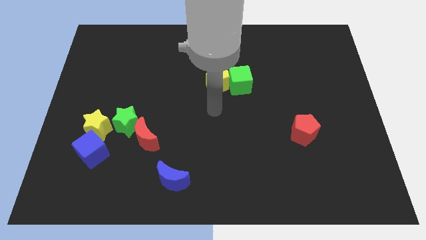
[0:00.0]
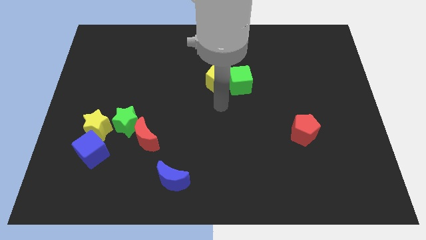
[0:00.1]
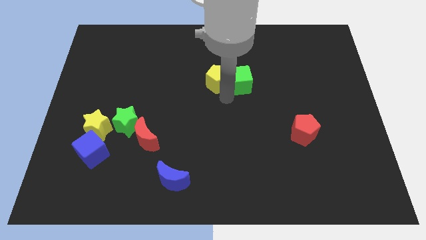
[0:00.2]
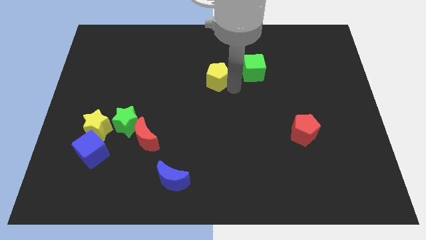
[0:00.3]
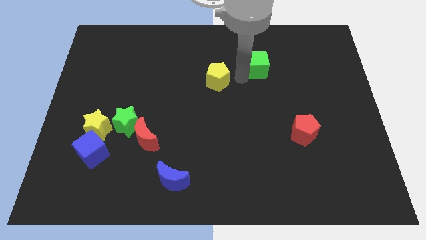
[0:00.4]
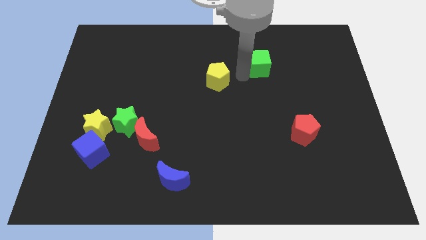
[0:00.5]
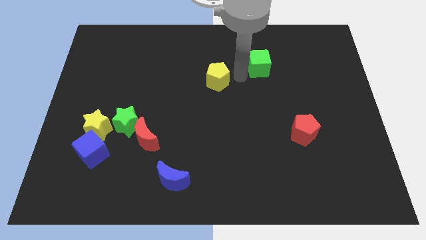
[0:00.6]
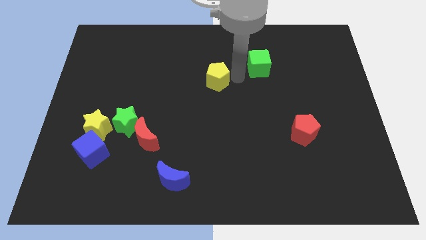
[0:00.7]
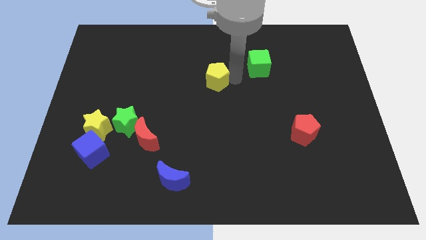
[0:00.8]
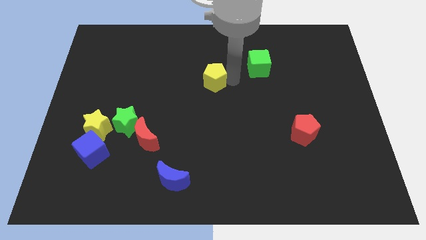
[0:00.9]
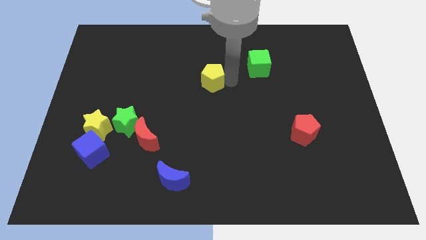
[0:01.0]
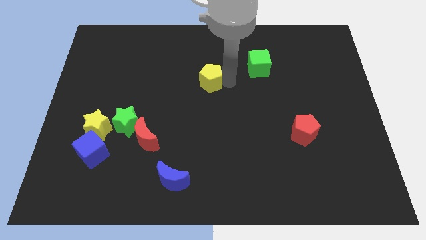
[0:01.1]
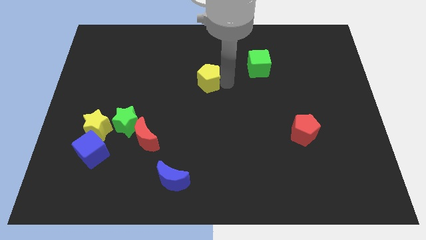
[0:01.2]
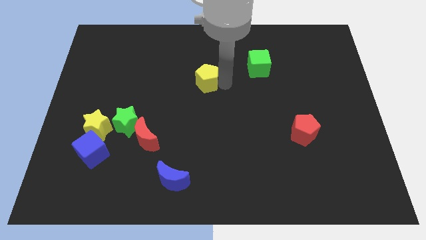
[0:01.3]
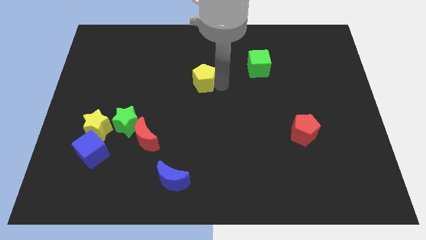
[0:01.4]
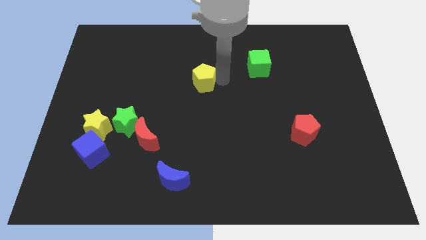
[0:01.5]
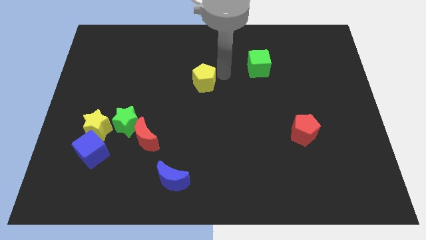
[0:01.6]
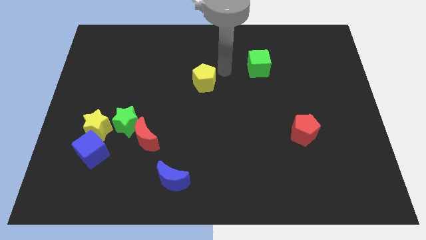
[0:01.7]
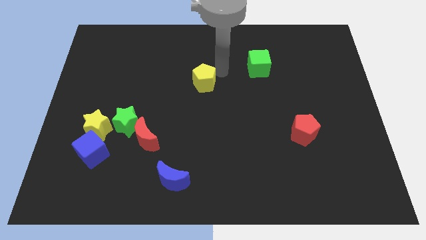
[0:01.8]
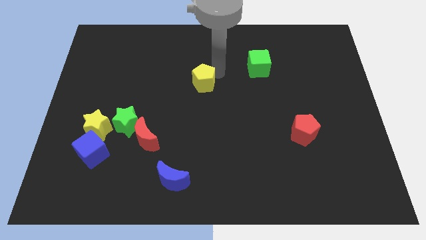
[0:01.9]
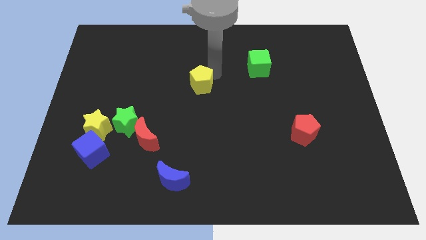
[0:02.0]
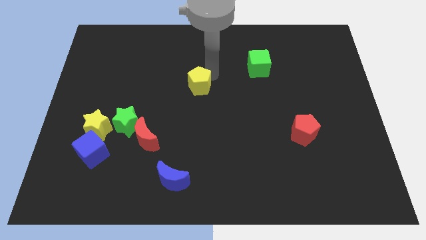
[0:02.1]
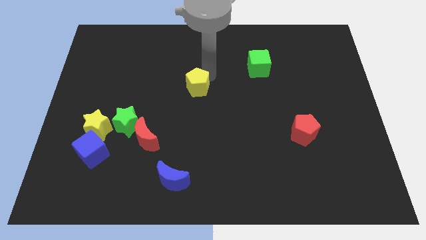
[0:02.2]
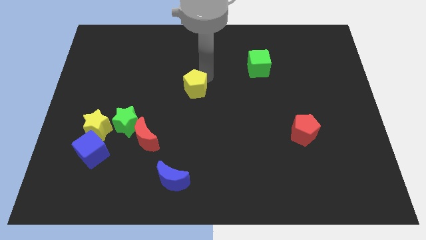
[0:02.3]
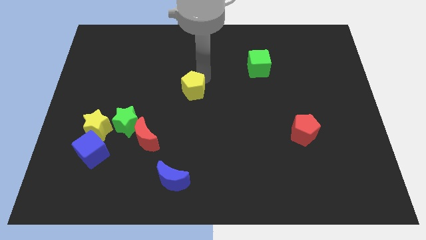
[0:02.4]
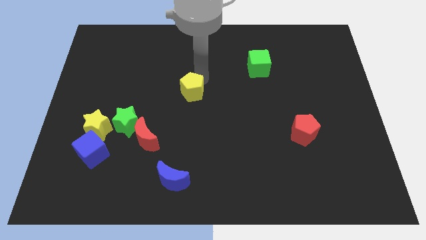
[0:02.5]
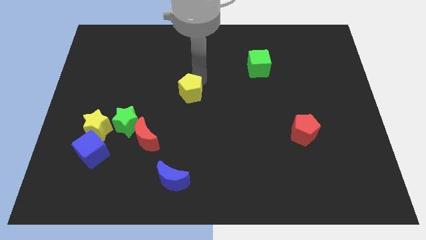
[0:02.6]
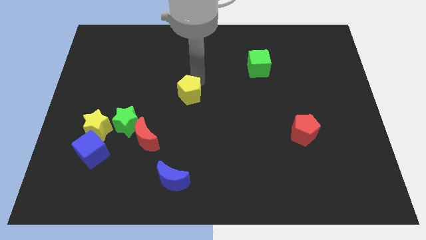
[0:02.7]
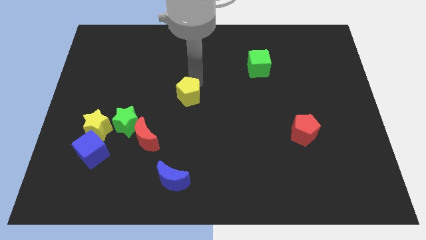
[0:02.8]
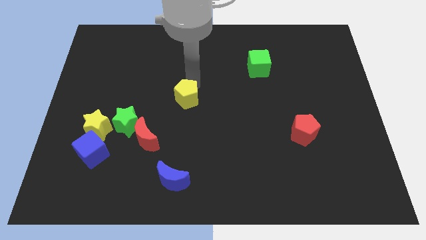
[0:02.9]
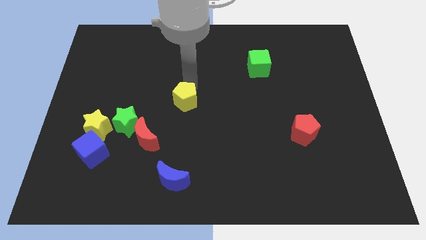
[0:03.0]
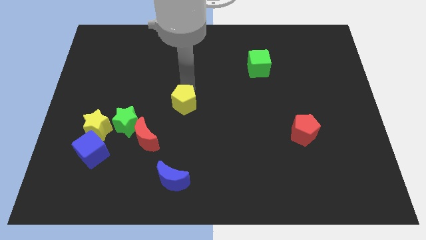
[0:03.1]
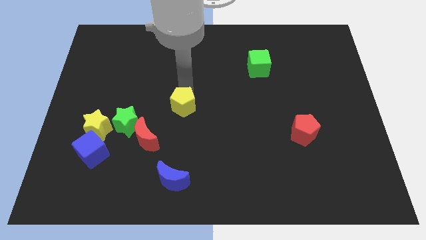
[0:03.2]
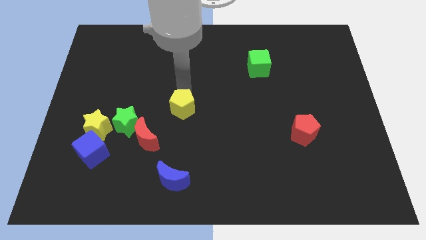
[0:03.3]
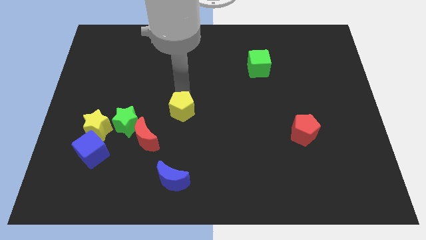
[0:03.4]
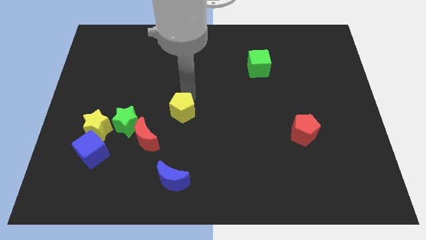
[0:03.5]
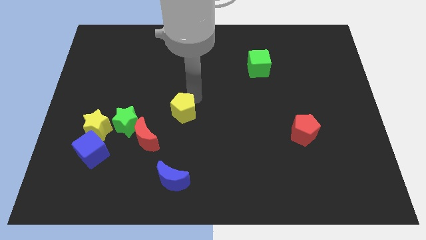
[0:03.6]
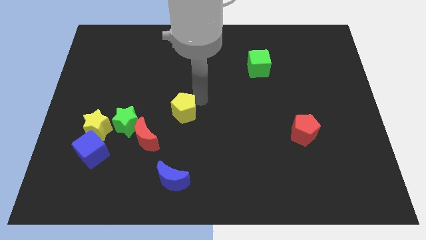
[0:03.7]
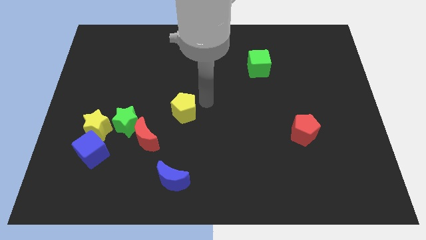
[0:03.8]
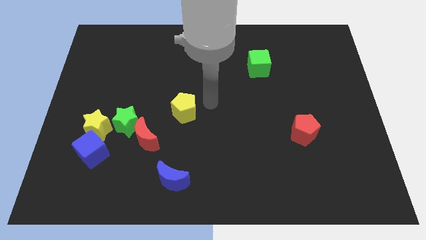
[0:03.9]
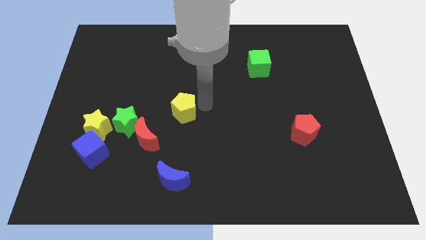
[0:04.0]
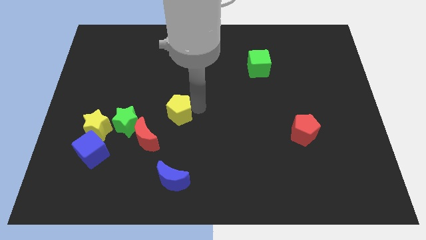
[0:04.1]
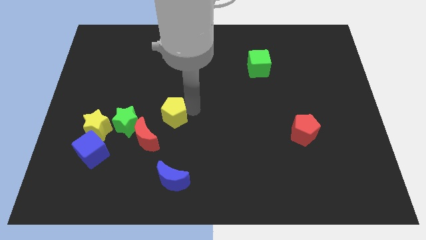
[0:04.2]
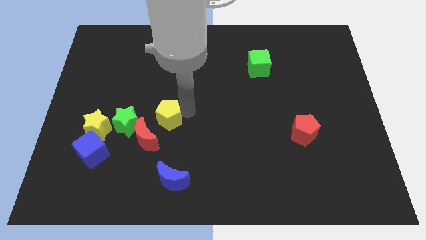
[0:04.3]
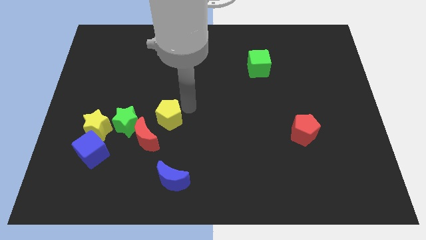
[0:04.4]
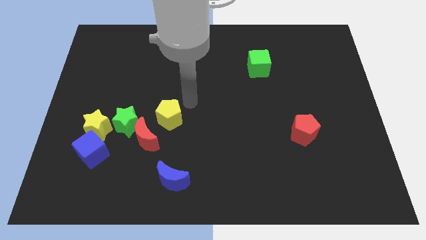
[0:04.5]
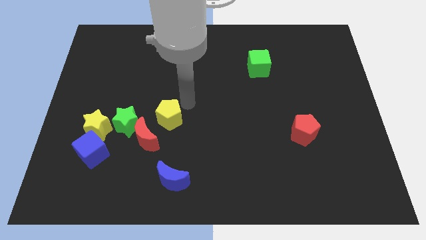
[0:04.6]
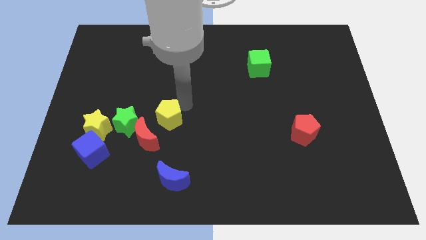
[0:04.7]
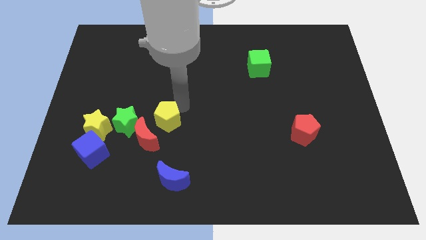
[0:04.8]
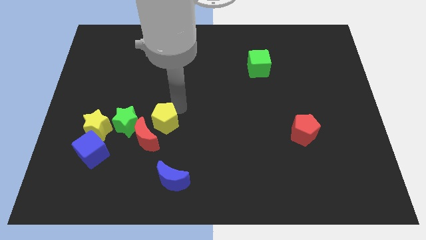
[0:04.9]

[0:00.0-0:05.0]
put the yellow pentagon close to the red moon
